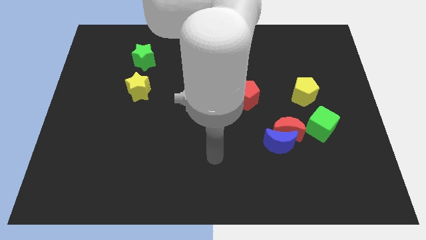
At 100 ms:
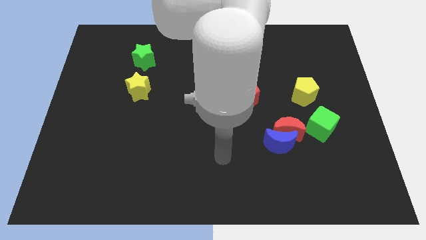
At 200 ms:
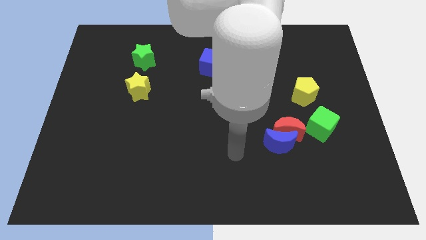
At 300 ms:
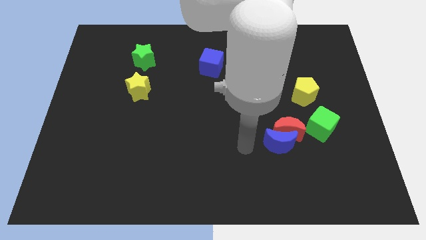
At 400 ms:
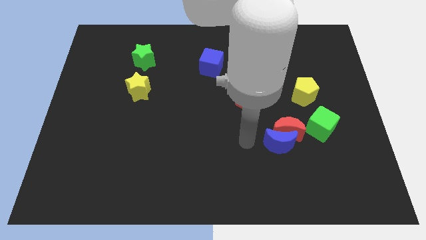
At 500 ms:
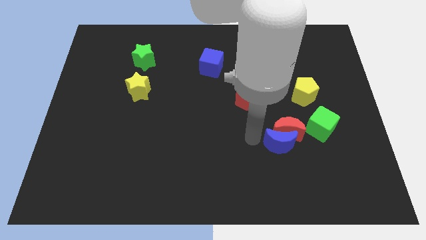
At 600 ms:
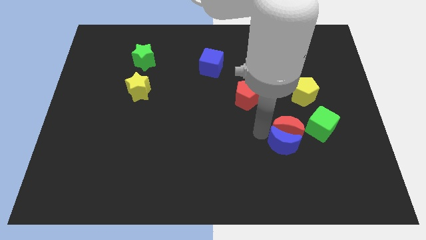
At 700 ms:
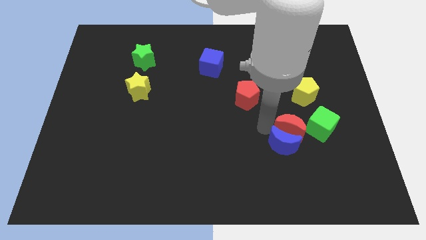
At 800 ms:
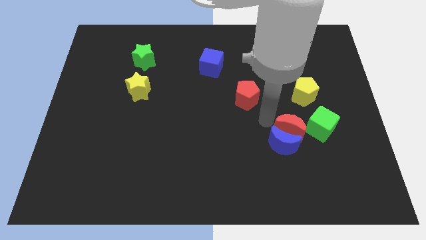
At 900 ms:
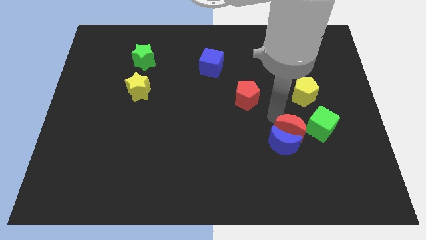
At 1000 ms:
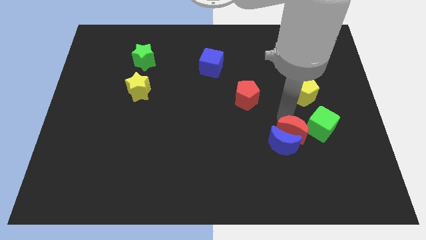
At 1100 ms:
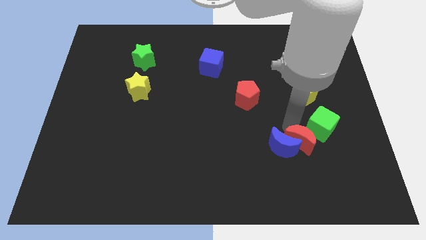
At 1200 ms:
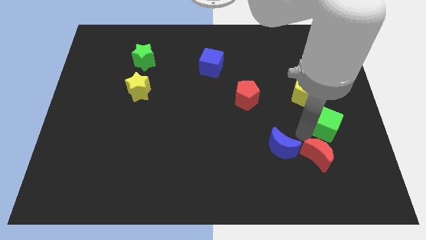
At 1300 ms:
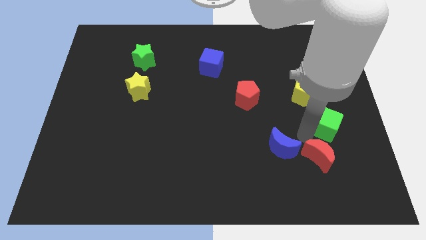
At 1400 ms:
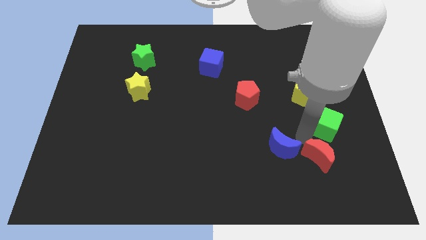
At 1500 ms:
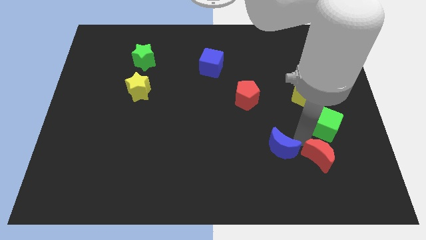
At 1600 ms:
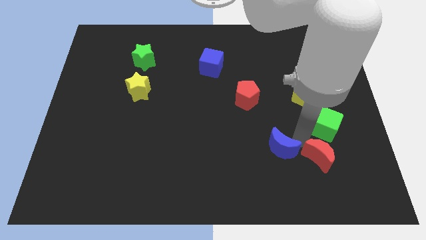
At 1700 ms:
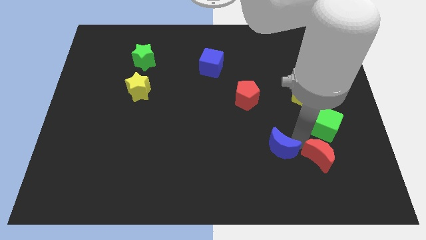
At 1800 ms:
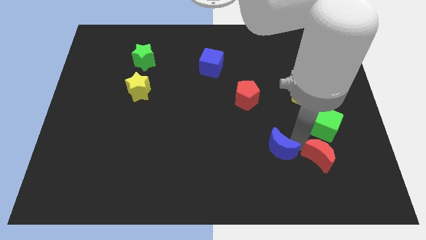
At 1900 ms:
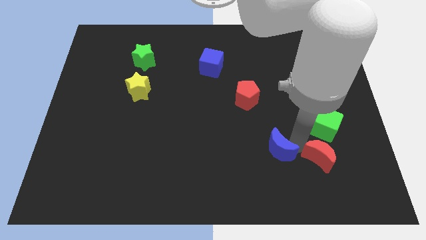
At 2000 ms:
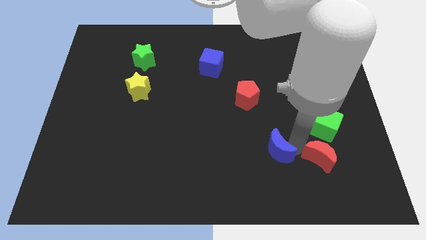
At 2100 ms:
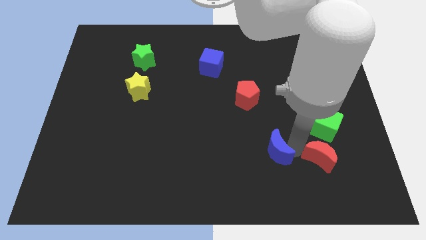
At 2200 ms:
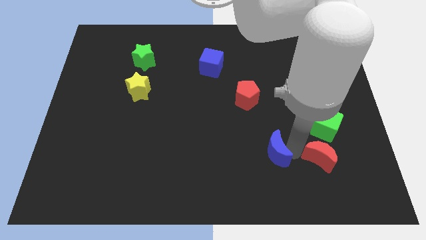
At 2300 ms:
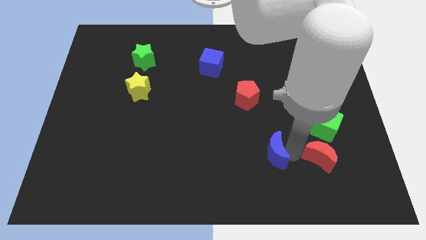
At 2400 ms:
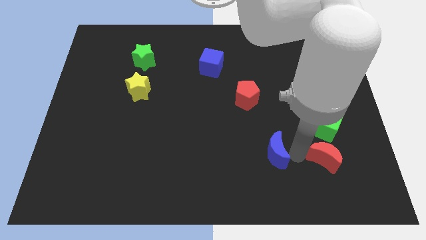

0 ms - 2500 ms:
pull the blue moon apart from the red moon

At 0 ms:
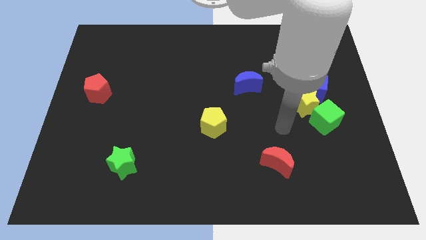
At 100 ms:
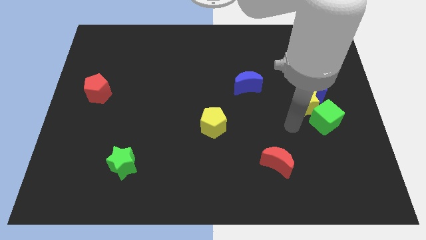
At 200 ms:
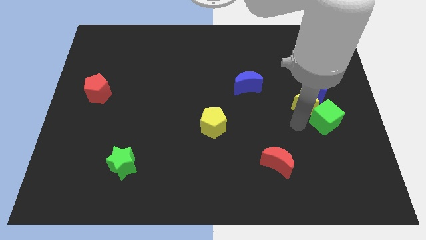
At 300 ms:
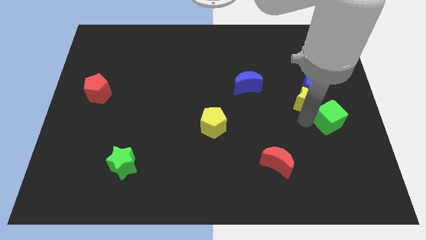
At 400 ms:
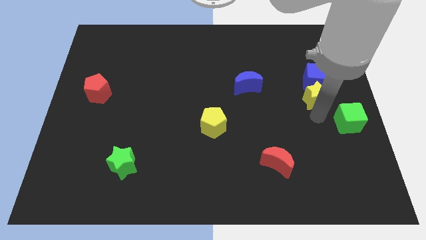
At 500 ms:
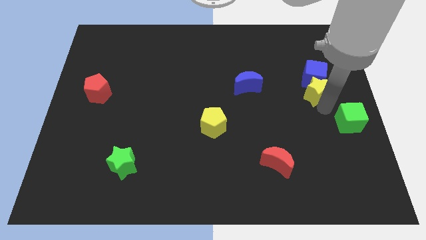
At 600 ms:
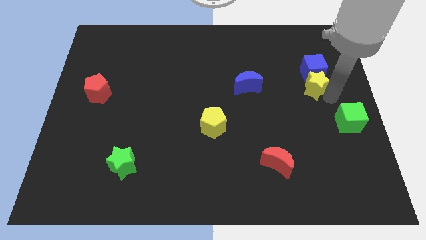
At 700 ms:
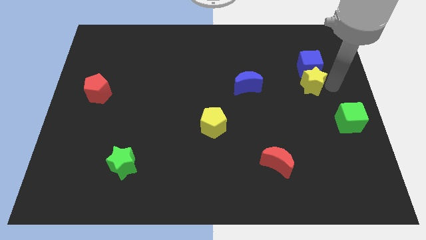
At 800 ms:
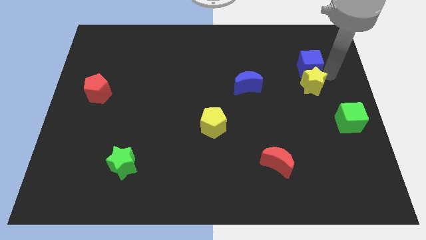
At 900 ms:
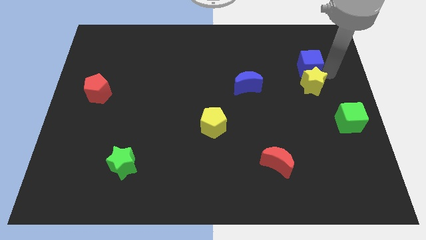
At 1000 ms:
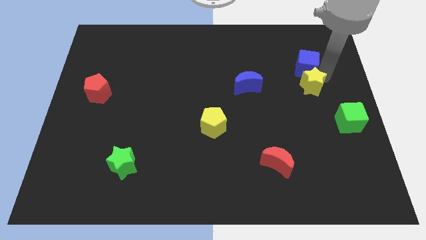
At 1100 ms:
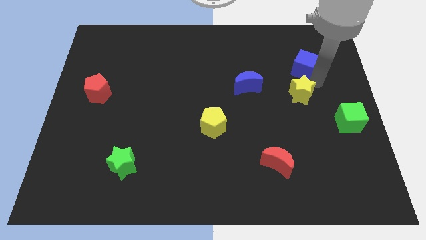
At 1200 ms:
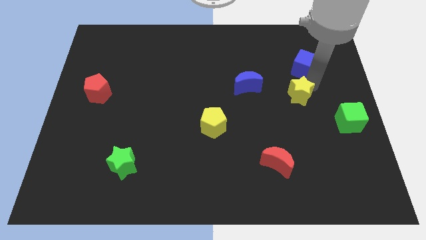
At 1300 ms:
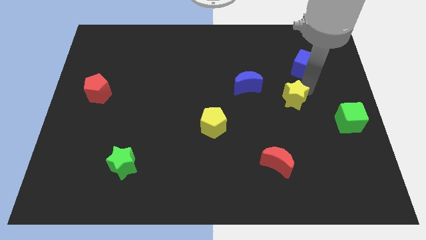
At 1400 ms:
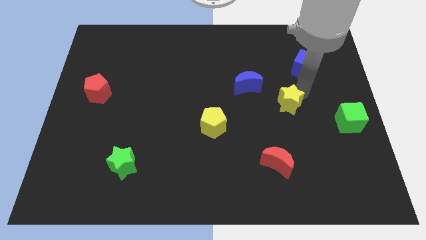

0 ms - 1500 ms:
separate the yellow star from the blue cube and green cube

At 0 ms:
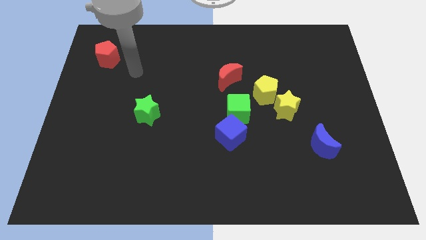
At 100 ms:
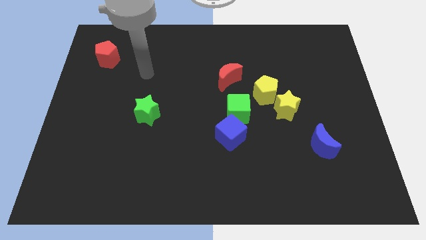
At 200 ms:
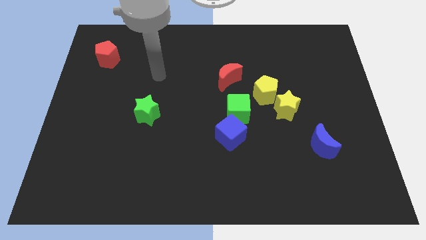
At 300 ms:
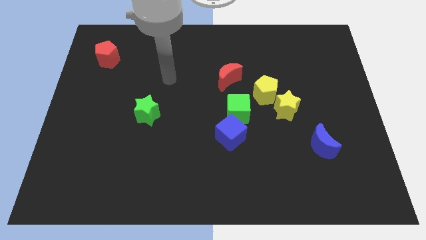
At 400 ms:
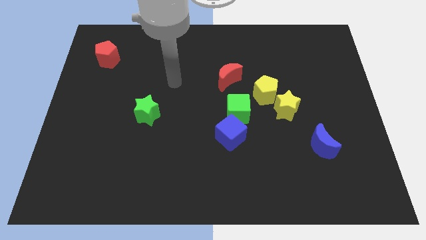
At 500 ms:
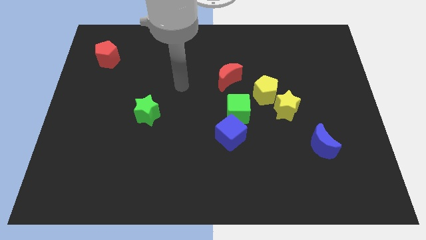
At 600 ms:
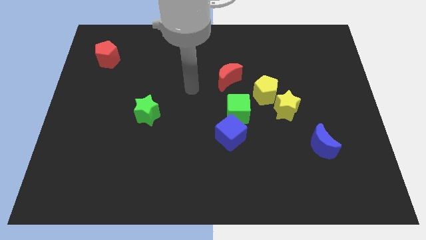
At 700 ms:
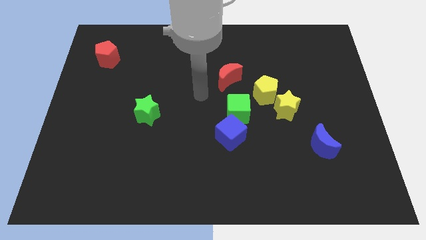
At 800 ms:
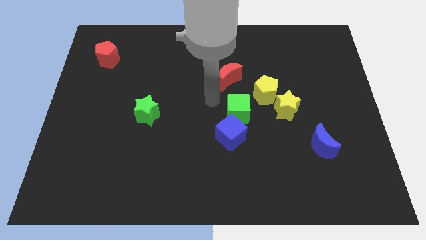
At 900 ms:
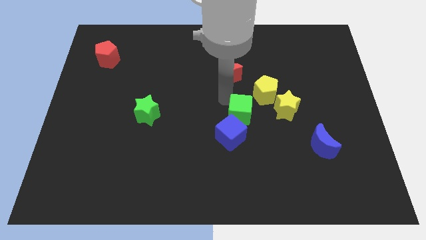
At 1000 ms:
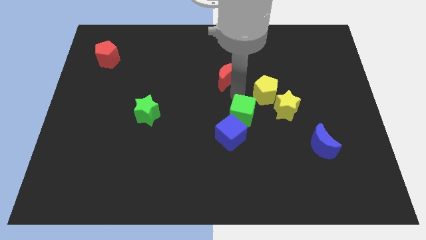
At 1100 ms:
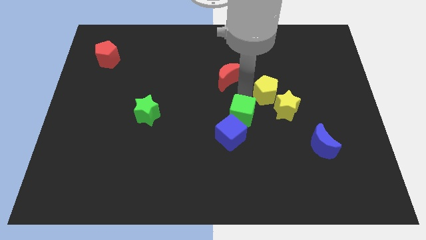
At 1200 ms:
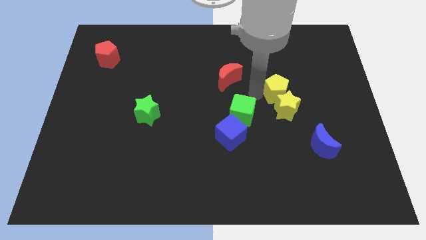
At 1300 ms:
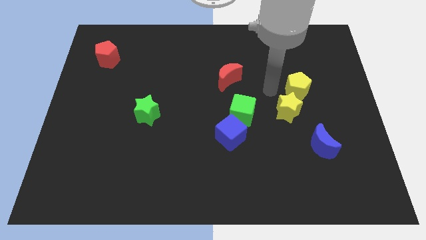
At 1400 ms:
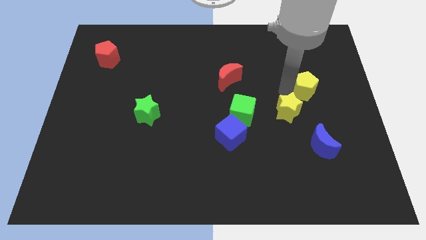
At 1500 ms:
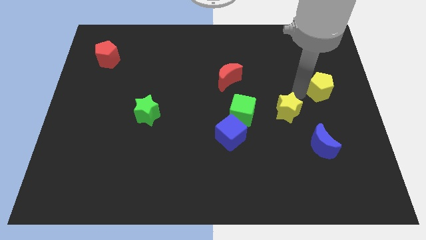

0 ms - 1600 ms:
pull the yellow star apart from the yellow pentagon

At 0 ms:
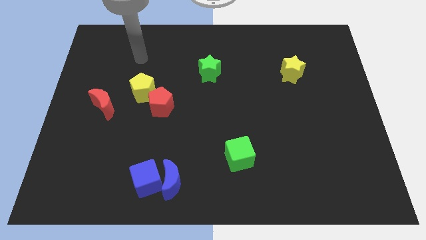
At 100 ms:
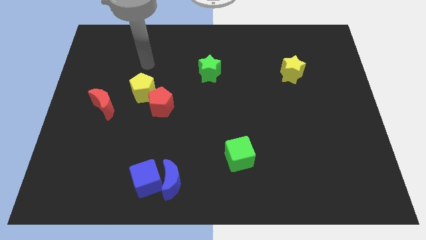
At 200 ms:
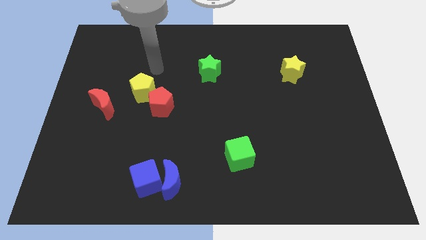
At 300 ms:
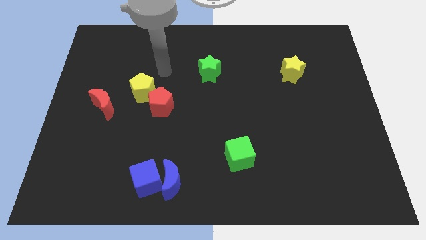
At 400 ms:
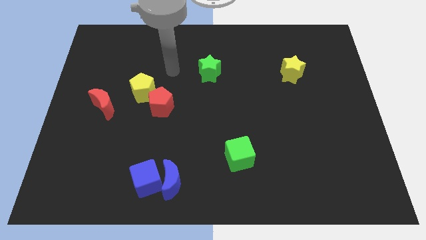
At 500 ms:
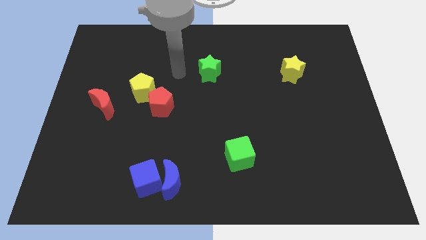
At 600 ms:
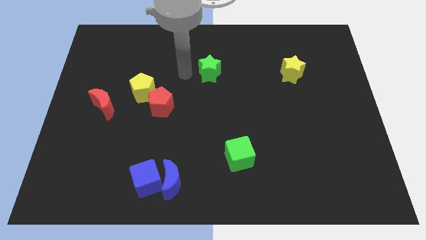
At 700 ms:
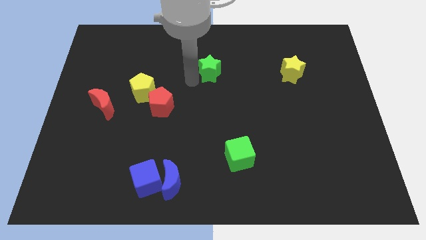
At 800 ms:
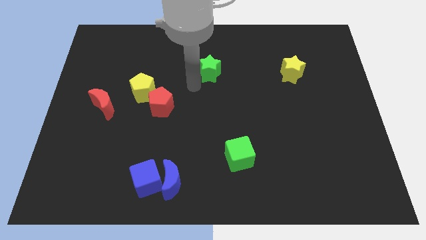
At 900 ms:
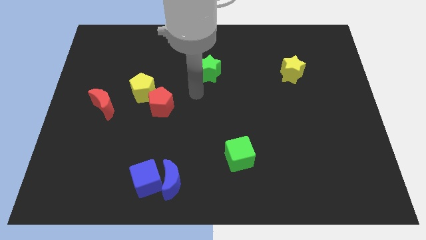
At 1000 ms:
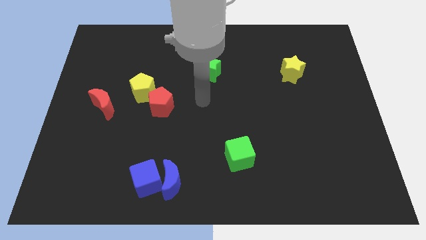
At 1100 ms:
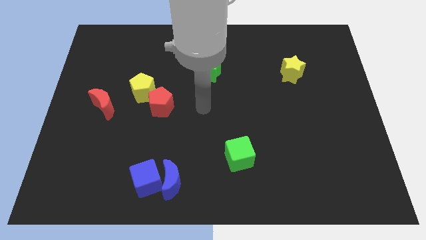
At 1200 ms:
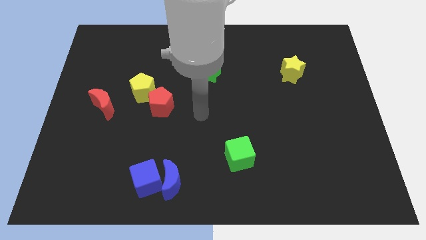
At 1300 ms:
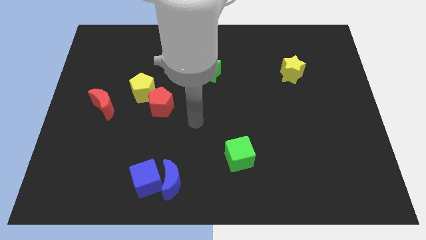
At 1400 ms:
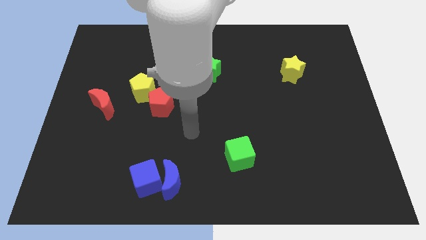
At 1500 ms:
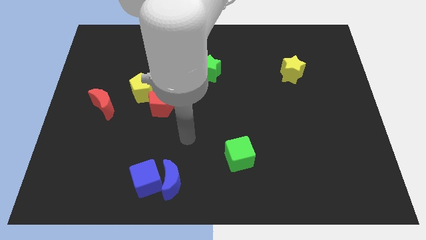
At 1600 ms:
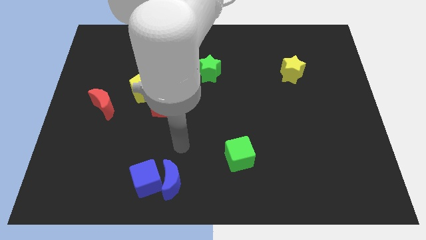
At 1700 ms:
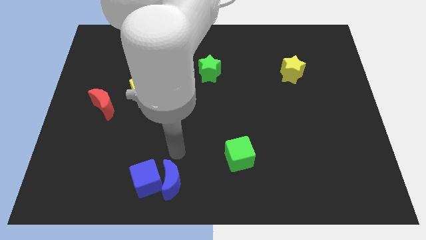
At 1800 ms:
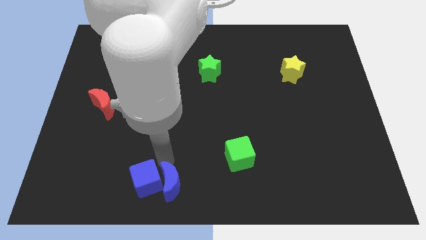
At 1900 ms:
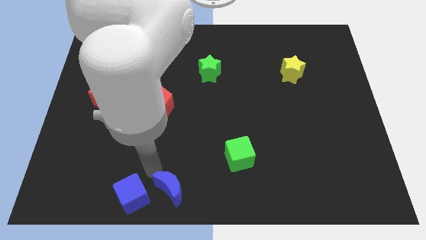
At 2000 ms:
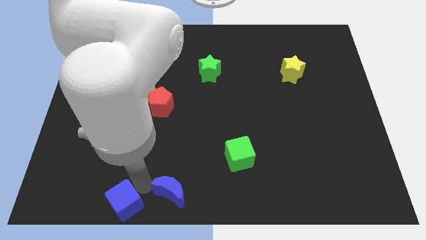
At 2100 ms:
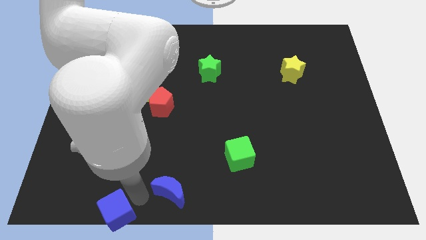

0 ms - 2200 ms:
pull the blue moon apart from the blue cube

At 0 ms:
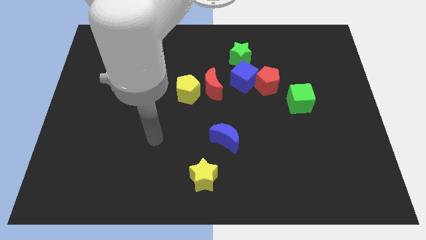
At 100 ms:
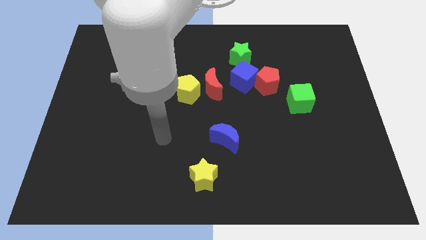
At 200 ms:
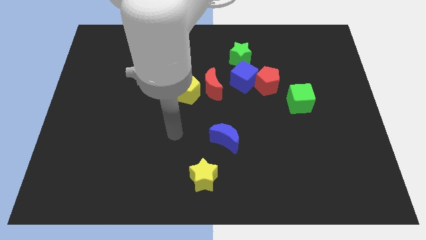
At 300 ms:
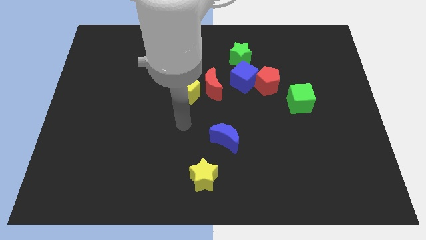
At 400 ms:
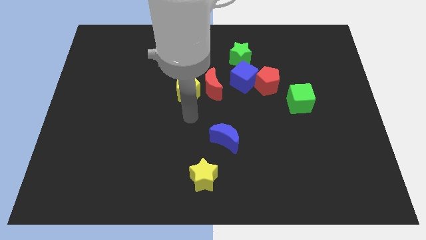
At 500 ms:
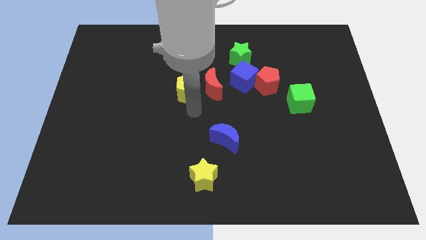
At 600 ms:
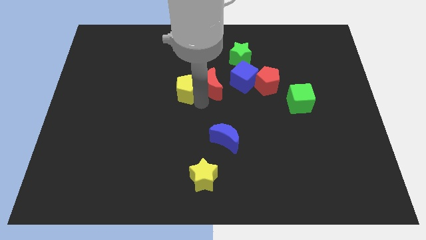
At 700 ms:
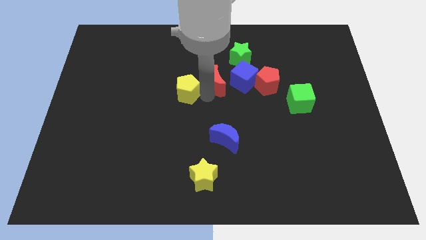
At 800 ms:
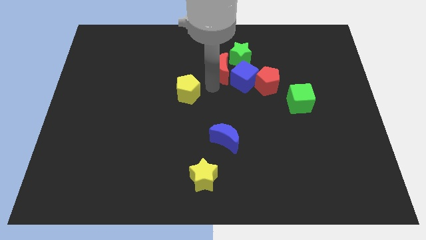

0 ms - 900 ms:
pull the yellow pentagon apart from the red moon

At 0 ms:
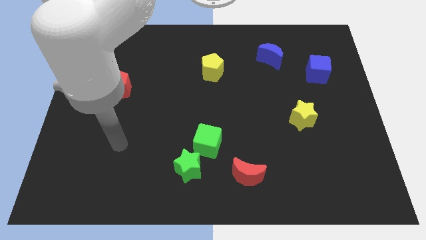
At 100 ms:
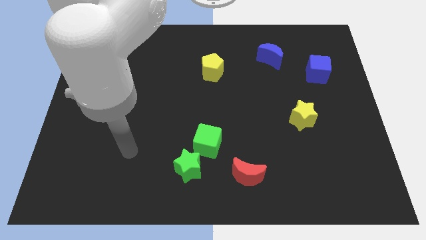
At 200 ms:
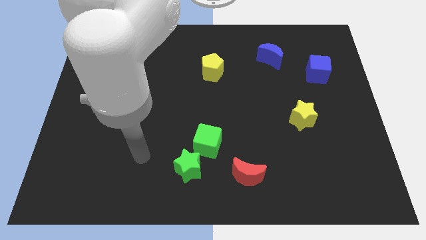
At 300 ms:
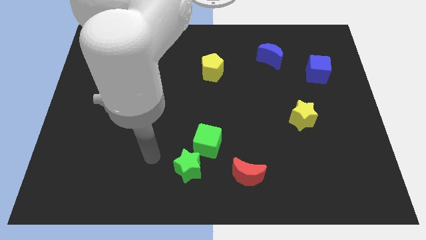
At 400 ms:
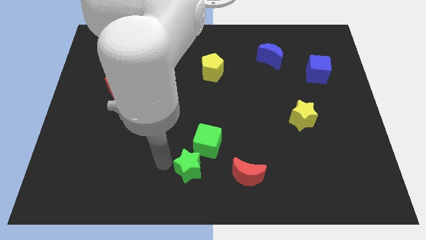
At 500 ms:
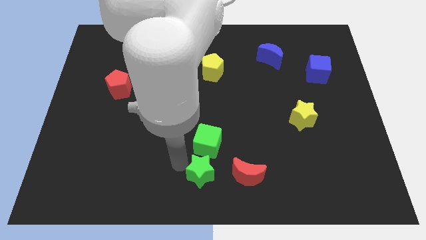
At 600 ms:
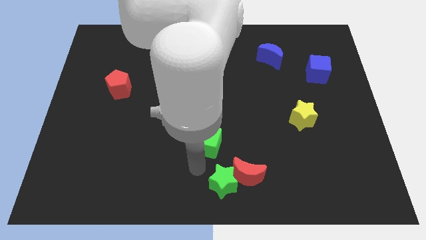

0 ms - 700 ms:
separate the green cube from the green star
